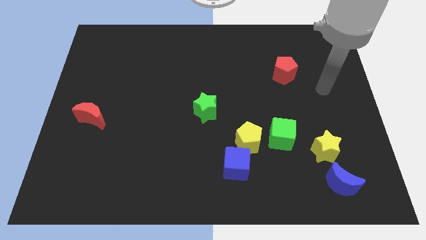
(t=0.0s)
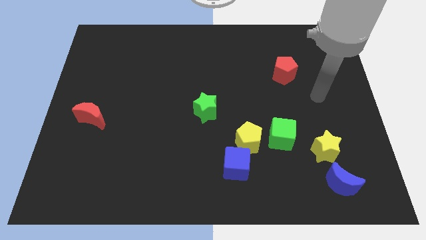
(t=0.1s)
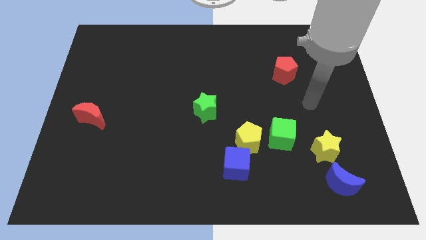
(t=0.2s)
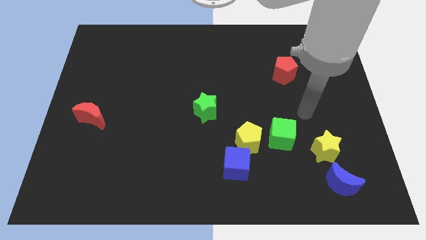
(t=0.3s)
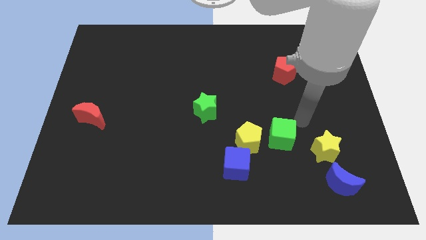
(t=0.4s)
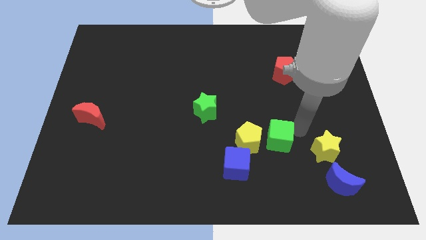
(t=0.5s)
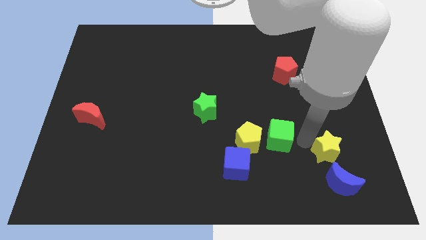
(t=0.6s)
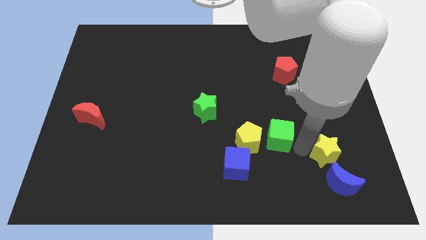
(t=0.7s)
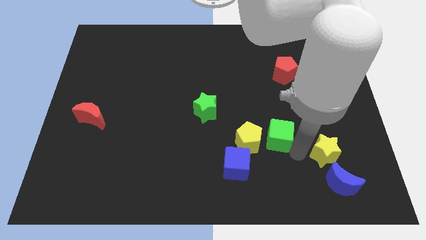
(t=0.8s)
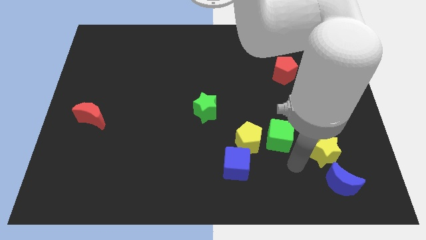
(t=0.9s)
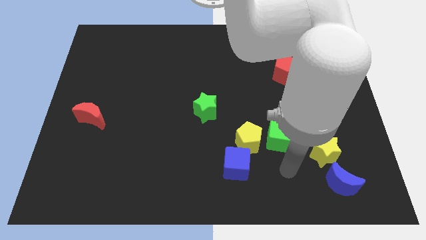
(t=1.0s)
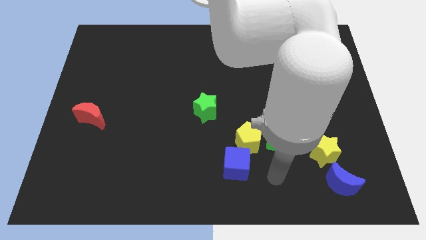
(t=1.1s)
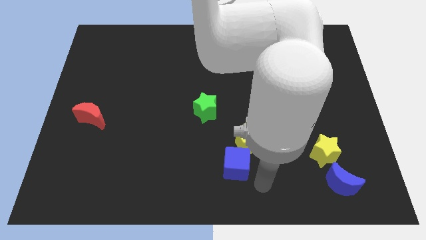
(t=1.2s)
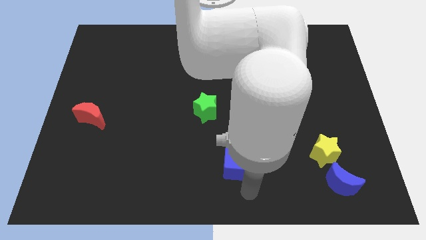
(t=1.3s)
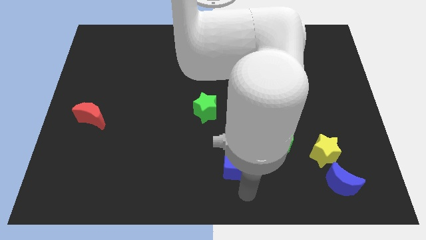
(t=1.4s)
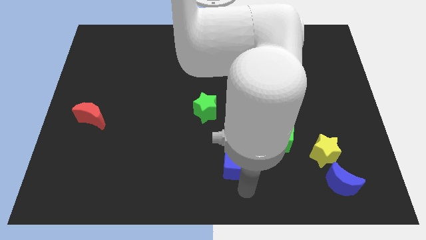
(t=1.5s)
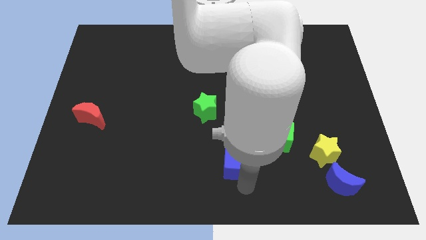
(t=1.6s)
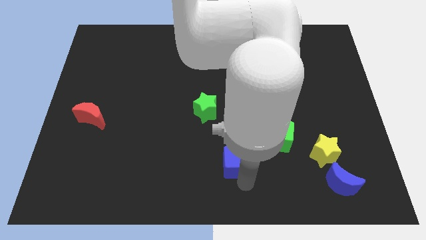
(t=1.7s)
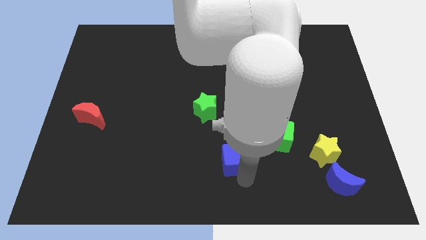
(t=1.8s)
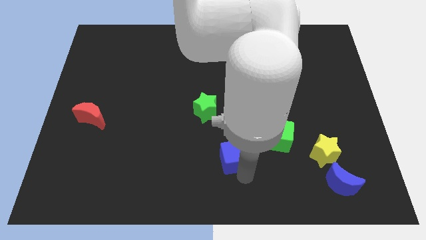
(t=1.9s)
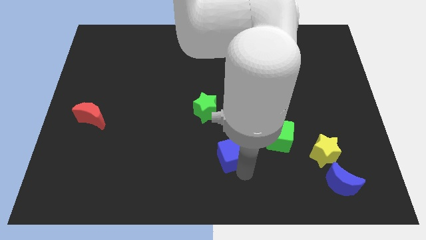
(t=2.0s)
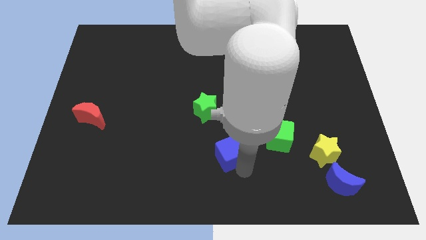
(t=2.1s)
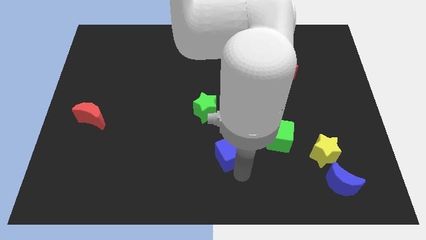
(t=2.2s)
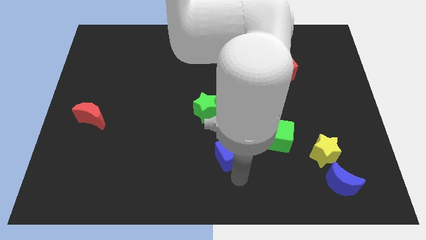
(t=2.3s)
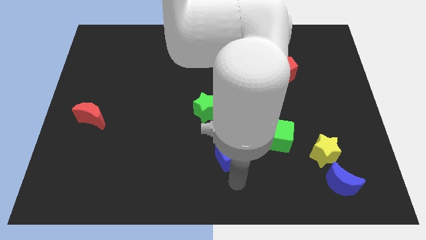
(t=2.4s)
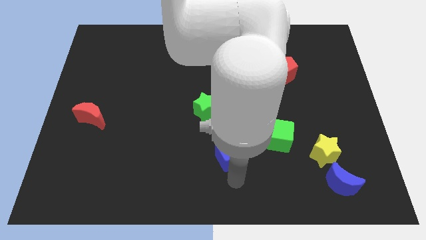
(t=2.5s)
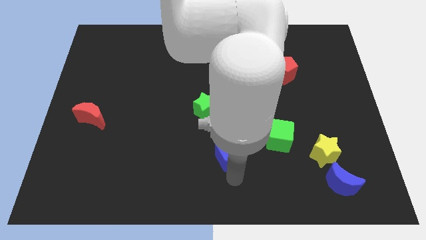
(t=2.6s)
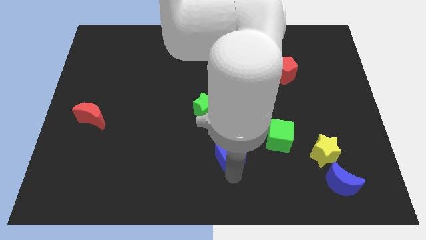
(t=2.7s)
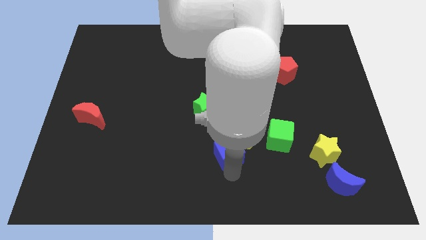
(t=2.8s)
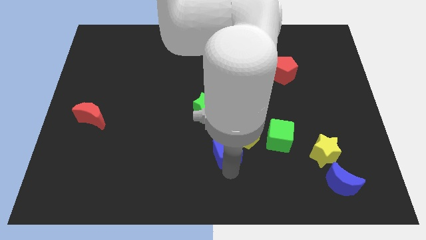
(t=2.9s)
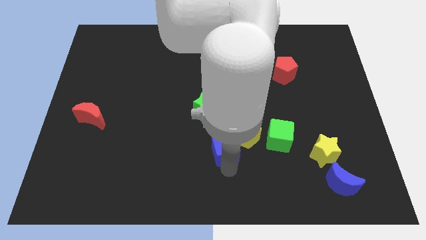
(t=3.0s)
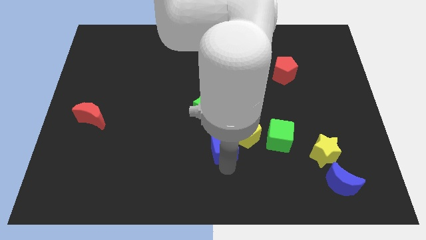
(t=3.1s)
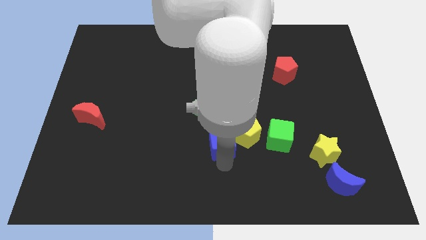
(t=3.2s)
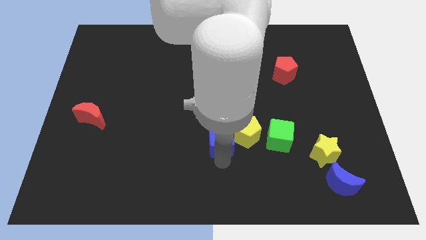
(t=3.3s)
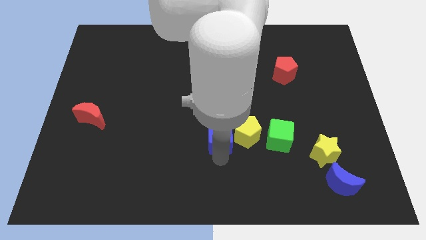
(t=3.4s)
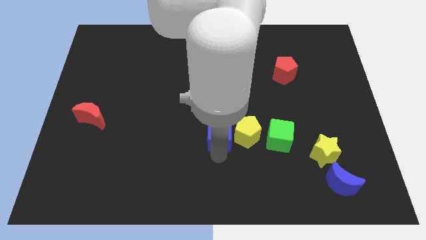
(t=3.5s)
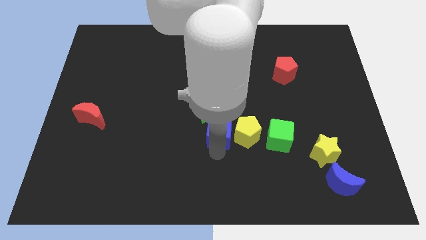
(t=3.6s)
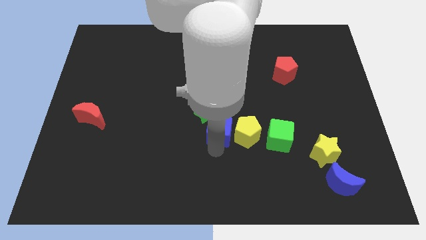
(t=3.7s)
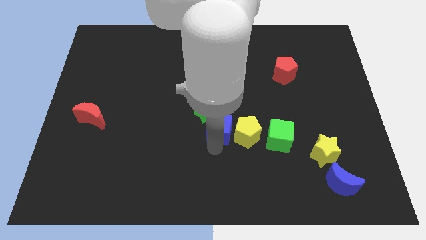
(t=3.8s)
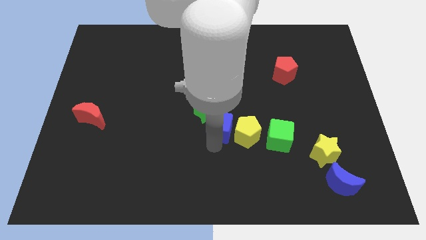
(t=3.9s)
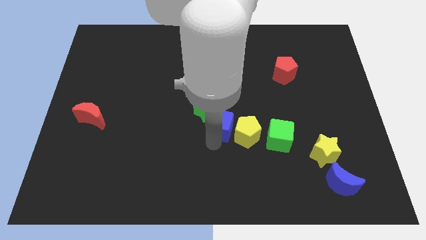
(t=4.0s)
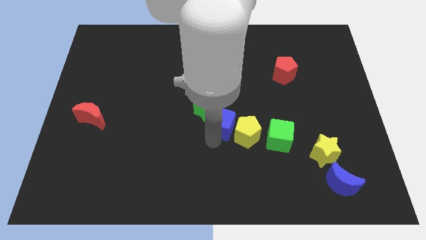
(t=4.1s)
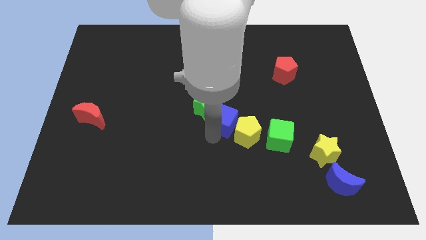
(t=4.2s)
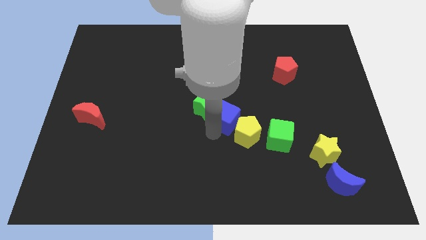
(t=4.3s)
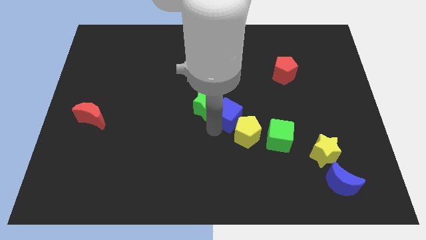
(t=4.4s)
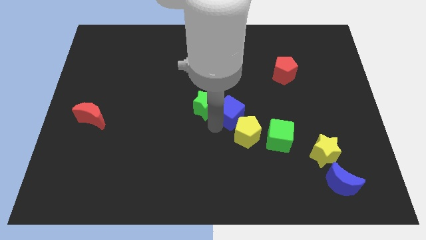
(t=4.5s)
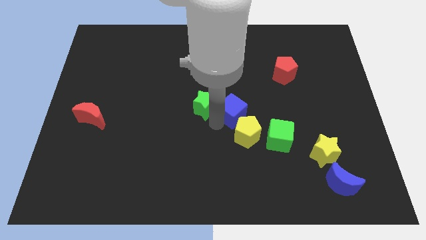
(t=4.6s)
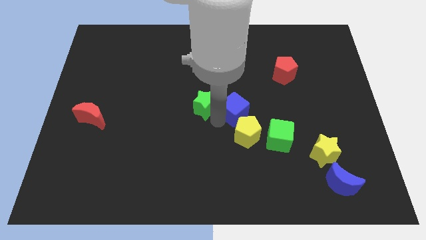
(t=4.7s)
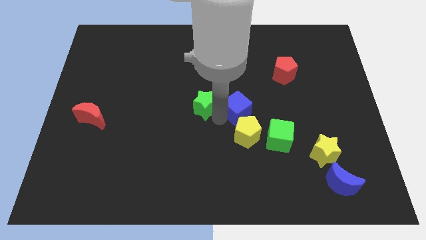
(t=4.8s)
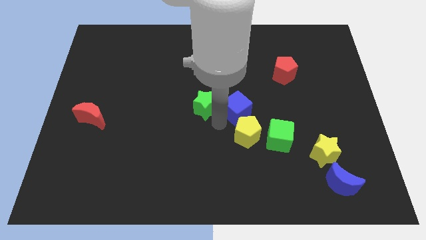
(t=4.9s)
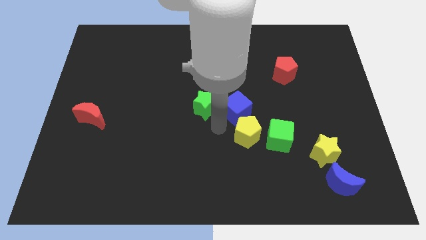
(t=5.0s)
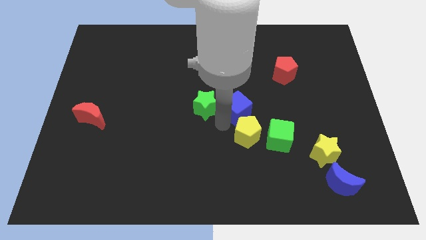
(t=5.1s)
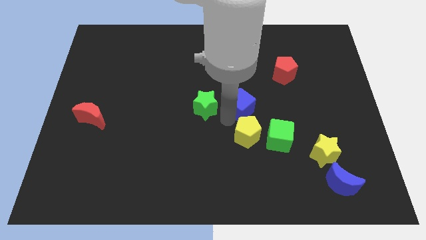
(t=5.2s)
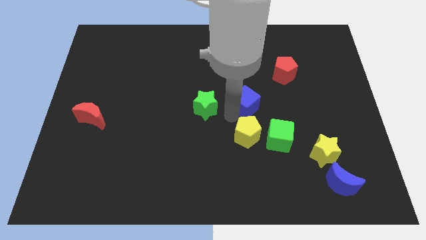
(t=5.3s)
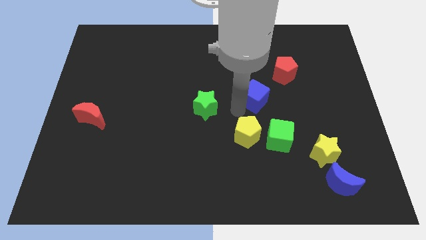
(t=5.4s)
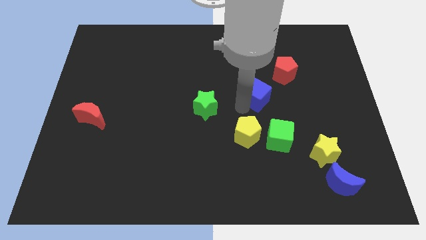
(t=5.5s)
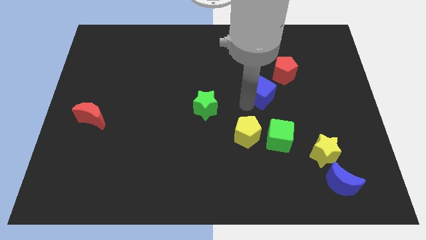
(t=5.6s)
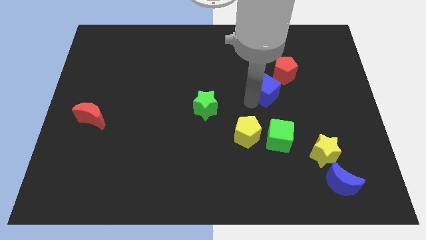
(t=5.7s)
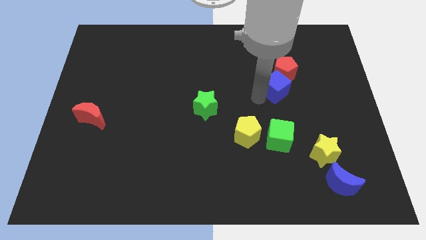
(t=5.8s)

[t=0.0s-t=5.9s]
move the blue cube towards the red pentagon

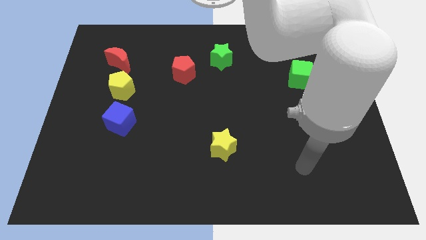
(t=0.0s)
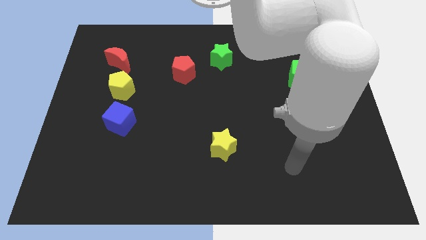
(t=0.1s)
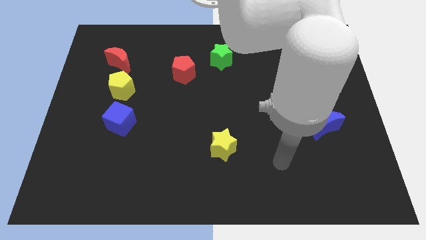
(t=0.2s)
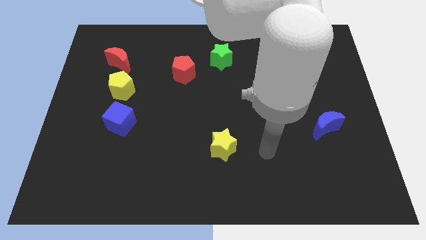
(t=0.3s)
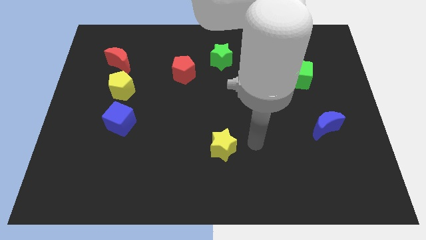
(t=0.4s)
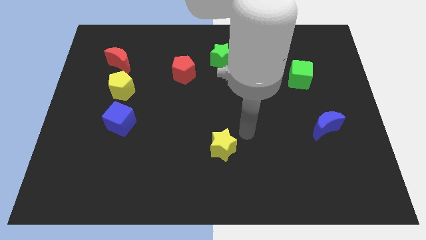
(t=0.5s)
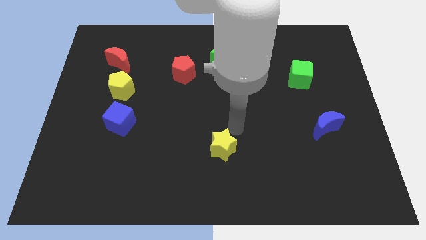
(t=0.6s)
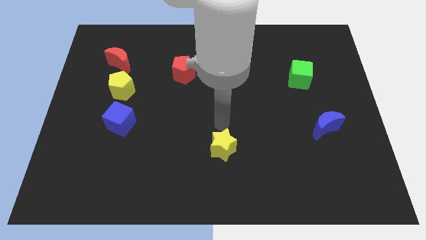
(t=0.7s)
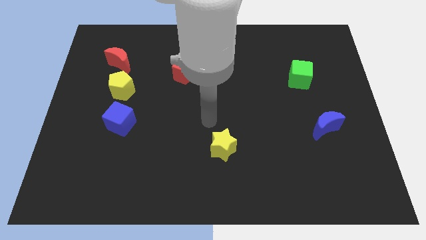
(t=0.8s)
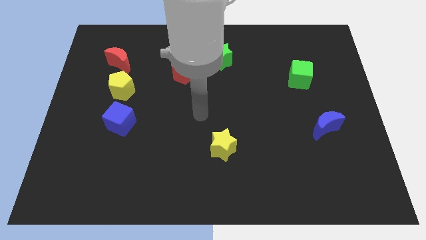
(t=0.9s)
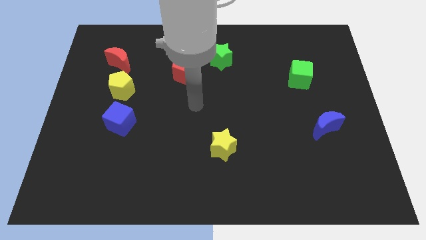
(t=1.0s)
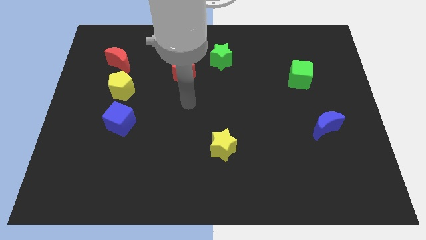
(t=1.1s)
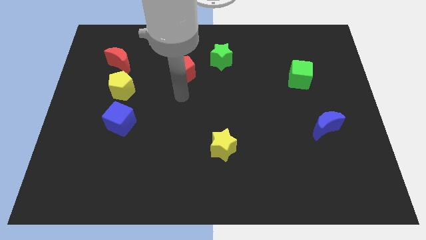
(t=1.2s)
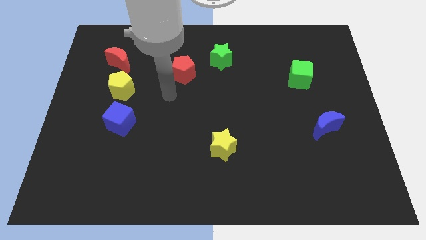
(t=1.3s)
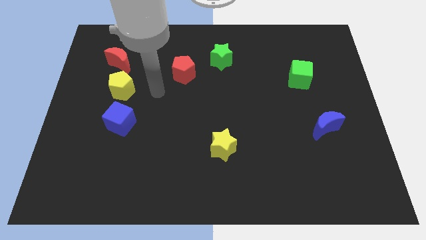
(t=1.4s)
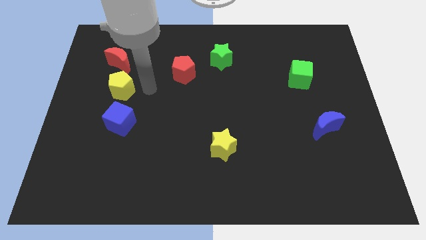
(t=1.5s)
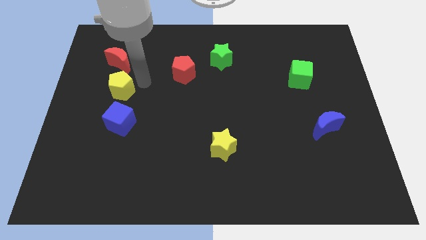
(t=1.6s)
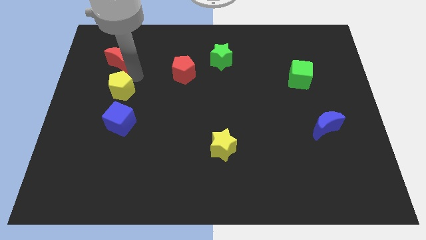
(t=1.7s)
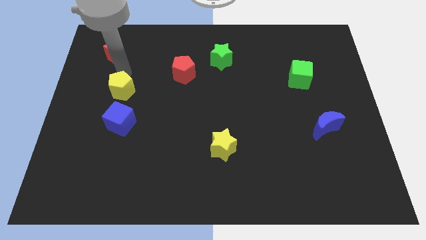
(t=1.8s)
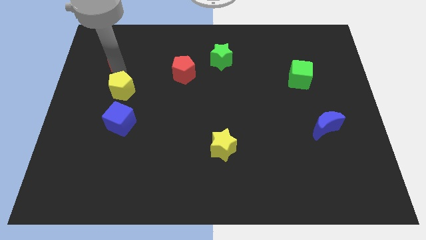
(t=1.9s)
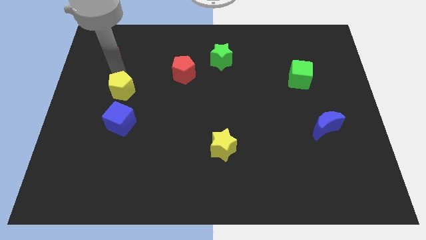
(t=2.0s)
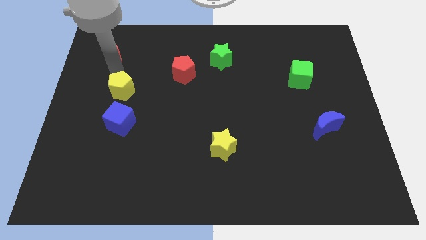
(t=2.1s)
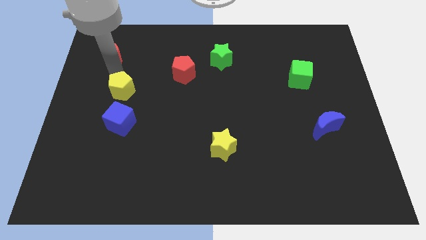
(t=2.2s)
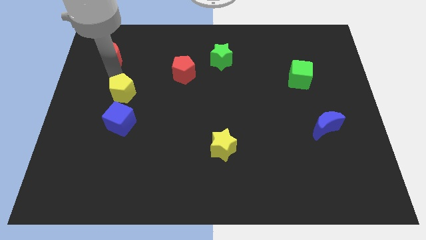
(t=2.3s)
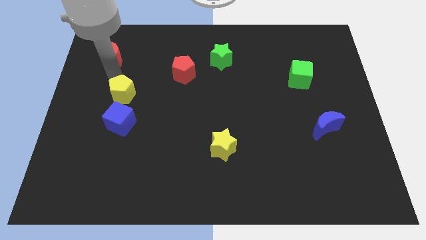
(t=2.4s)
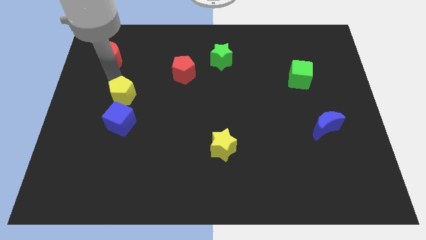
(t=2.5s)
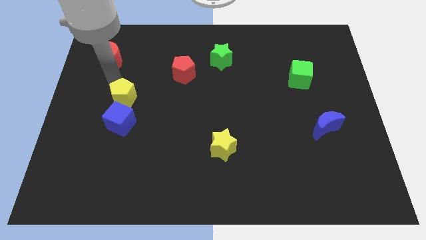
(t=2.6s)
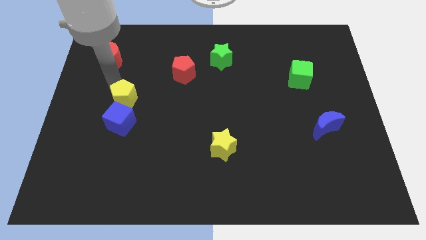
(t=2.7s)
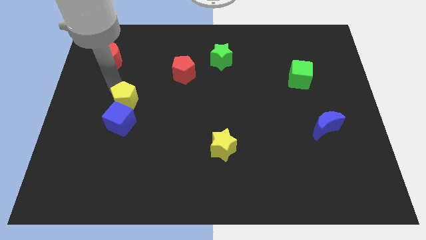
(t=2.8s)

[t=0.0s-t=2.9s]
slide the yellow pentagon to the blue cube
